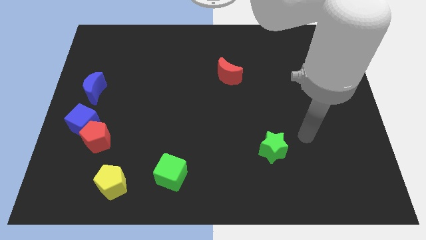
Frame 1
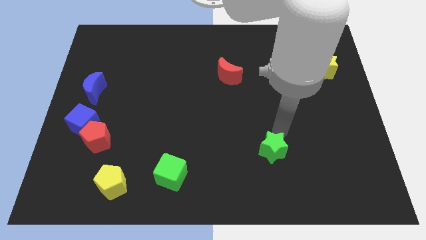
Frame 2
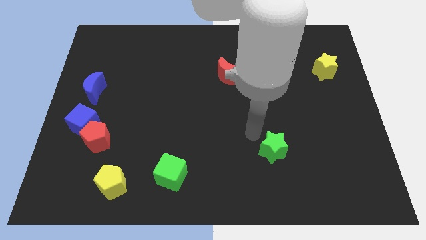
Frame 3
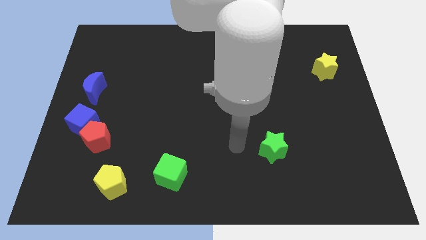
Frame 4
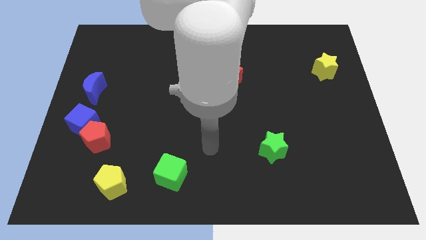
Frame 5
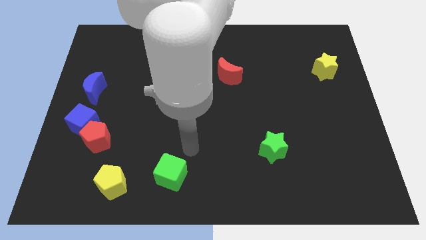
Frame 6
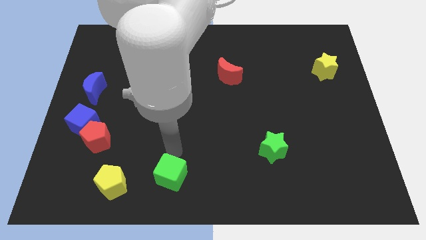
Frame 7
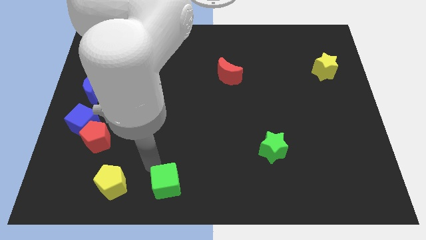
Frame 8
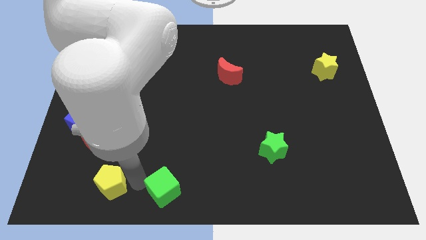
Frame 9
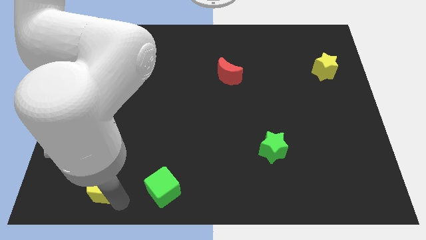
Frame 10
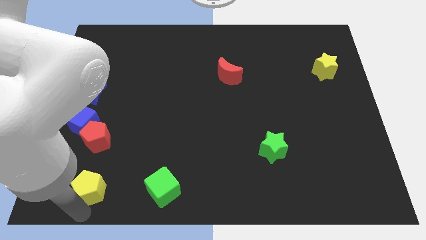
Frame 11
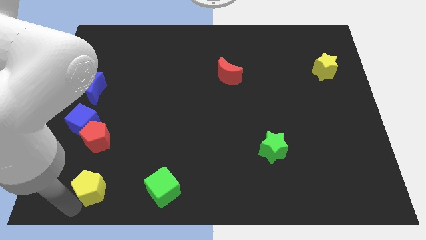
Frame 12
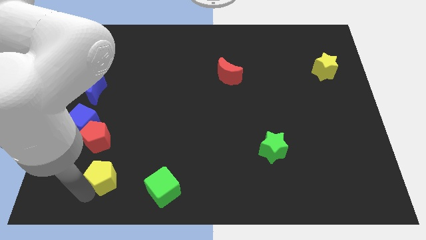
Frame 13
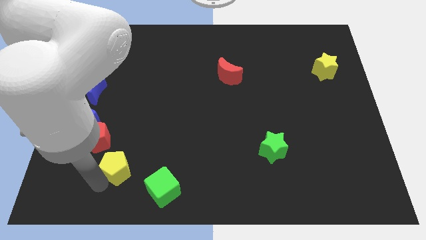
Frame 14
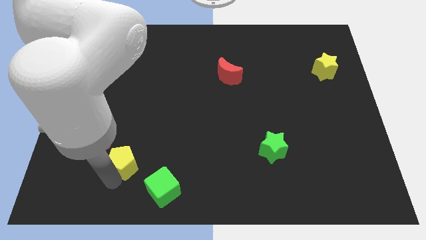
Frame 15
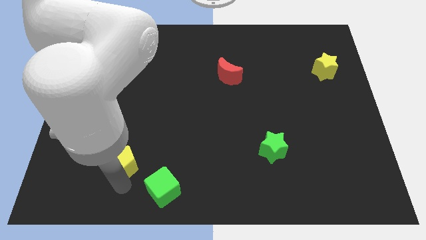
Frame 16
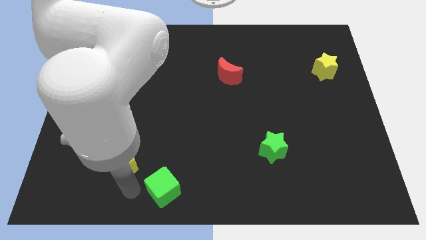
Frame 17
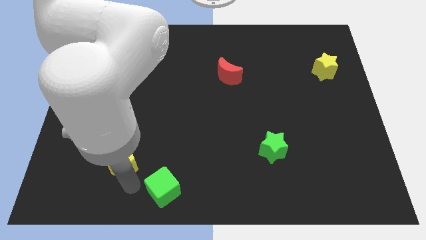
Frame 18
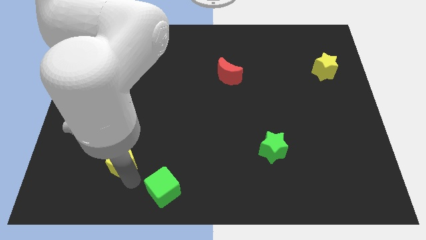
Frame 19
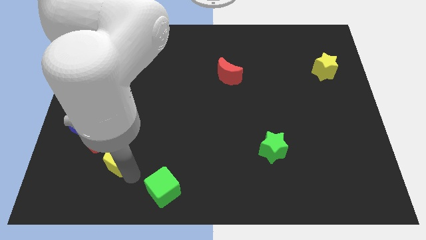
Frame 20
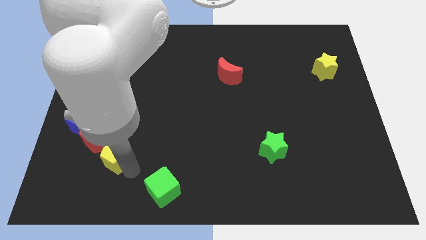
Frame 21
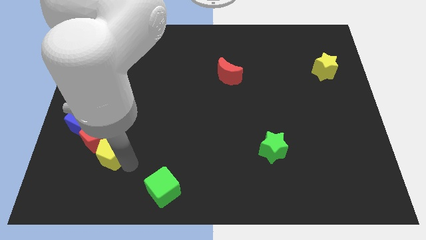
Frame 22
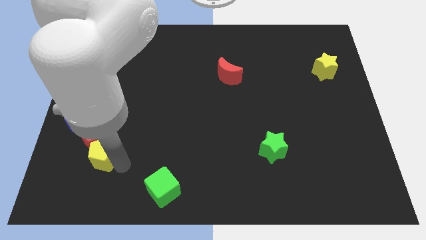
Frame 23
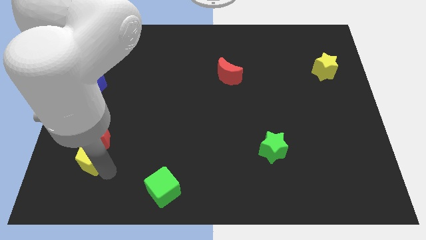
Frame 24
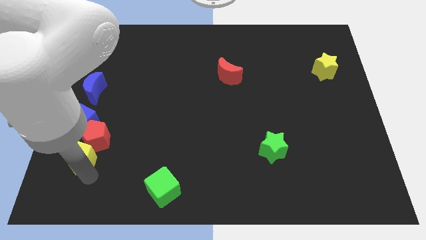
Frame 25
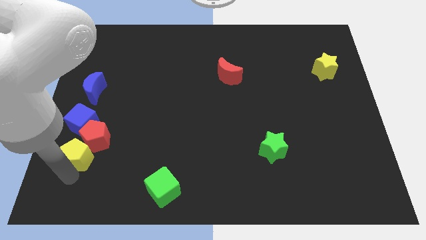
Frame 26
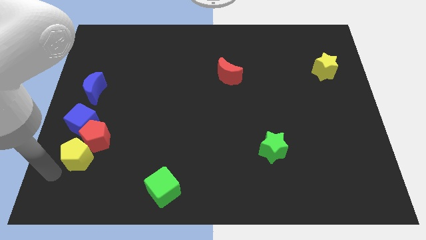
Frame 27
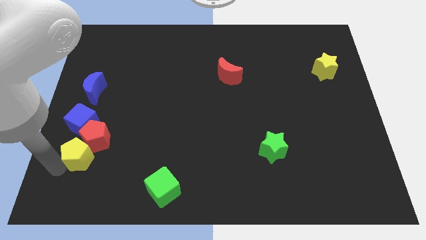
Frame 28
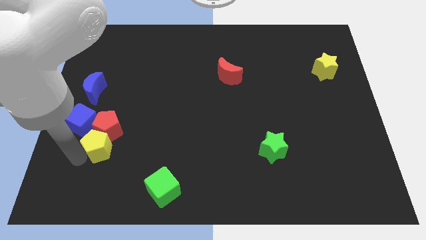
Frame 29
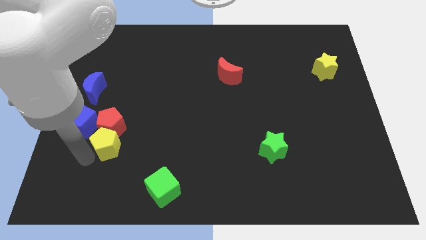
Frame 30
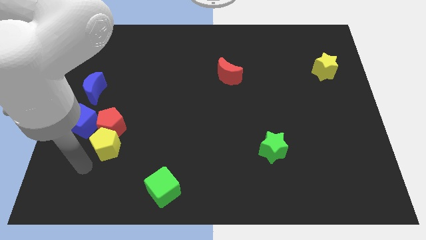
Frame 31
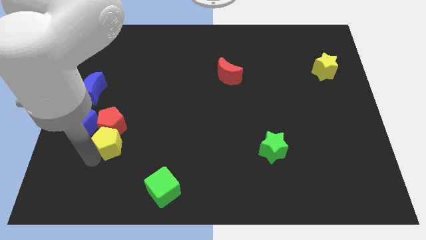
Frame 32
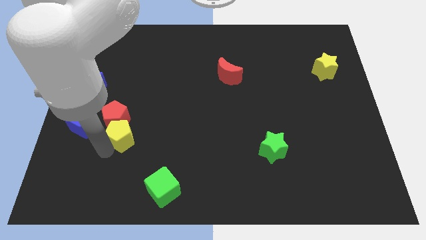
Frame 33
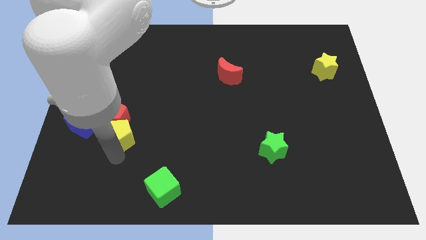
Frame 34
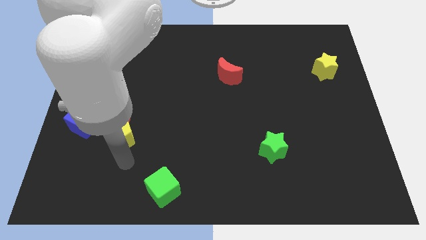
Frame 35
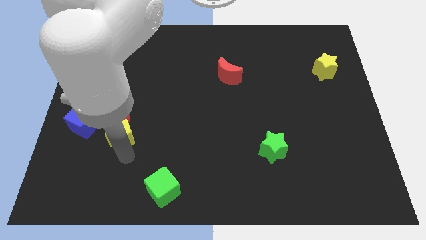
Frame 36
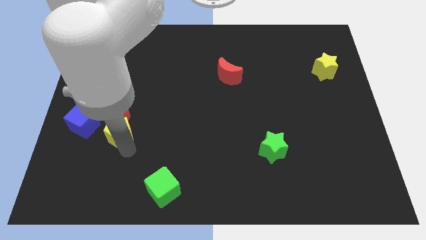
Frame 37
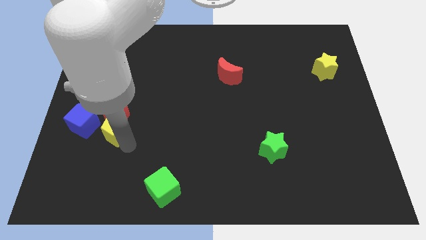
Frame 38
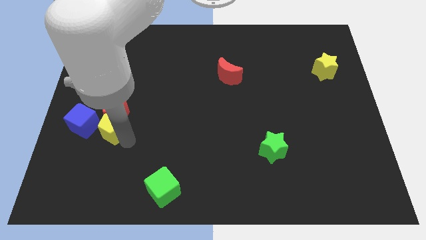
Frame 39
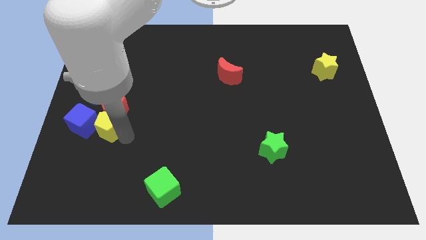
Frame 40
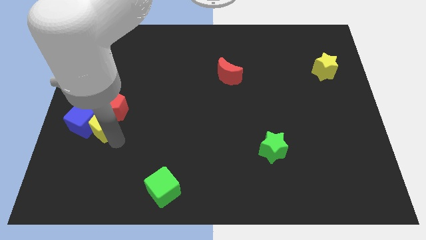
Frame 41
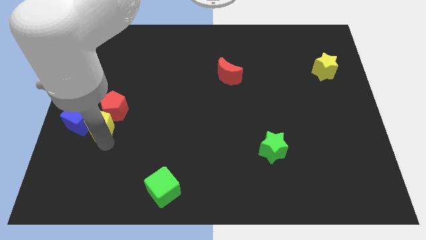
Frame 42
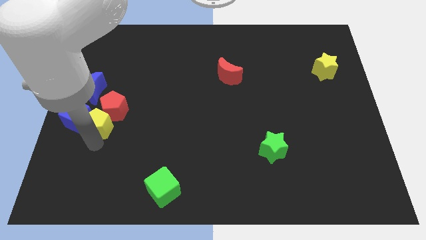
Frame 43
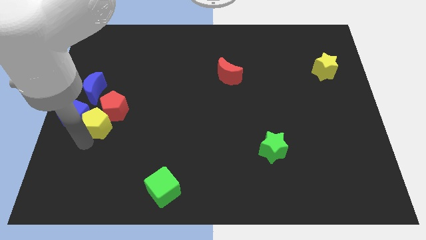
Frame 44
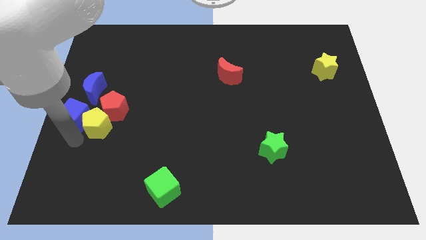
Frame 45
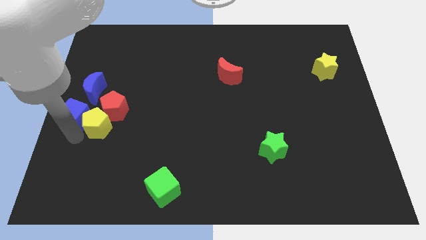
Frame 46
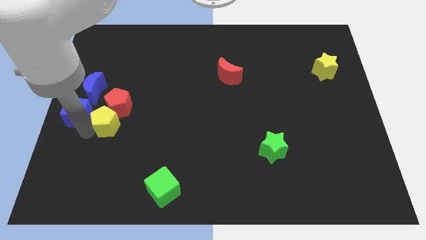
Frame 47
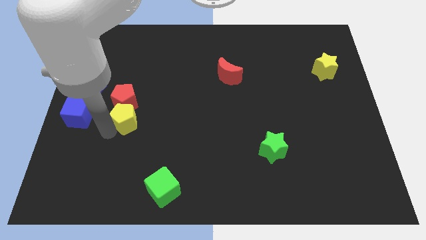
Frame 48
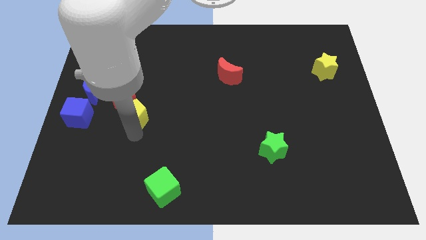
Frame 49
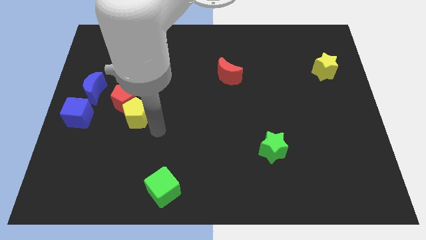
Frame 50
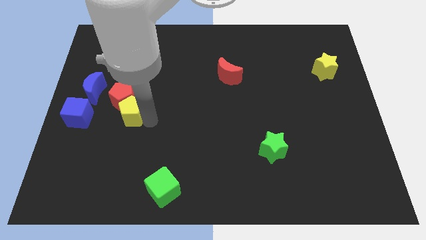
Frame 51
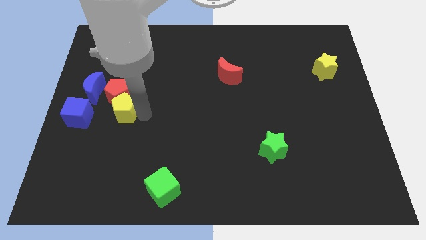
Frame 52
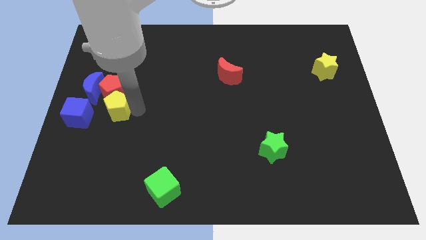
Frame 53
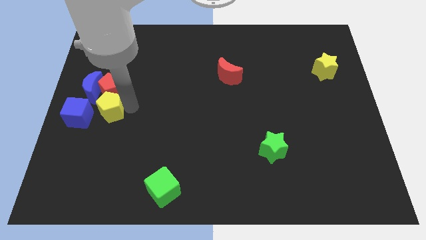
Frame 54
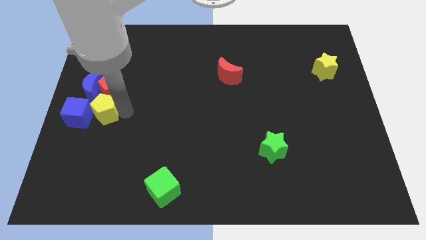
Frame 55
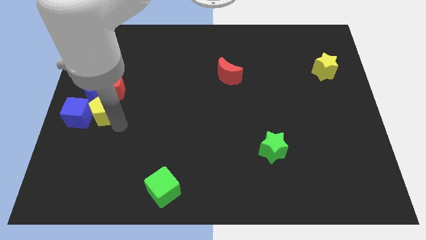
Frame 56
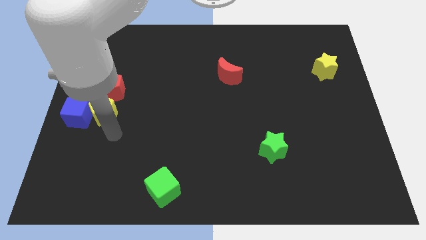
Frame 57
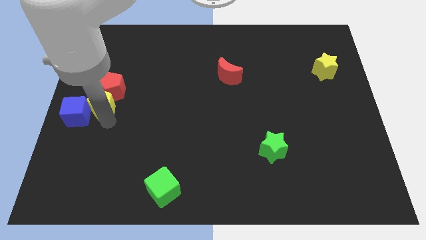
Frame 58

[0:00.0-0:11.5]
put the yellow pentagon next to the blue moon

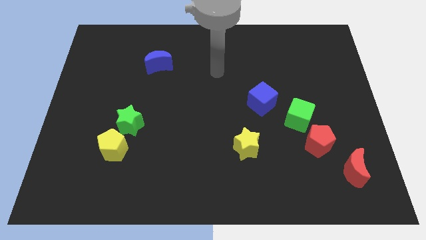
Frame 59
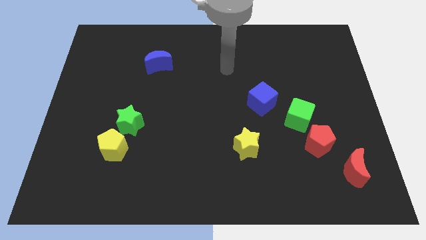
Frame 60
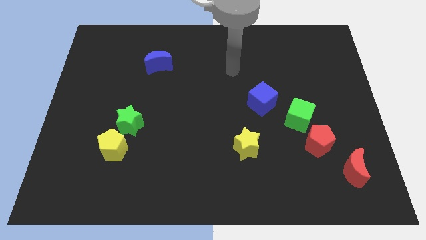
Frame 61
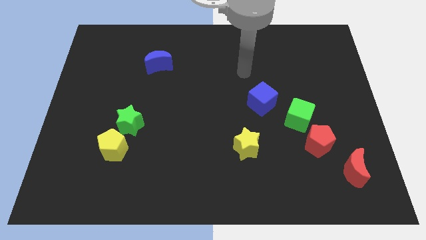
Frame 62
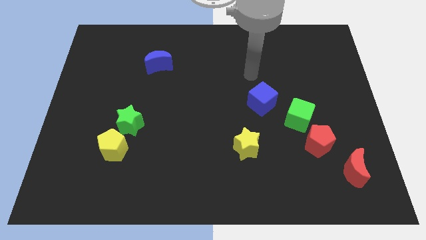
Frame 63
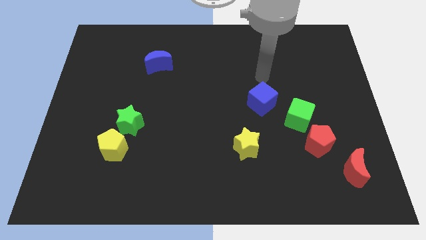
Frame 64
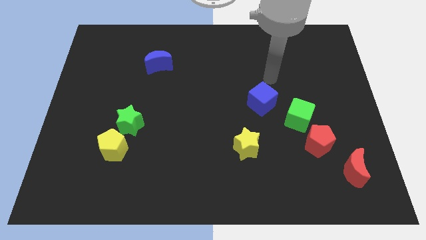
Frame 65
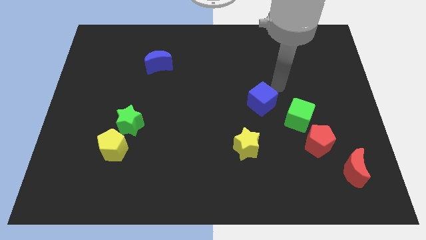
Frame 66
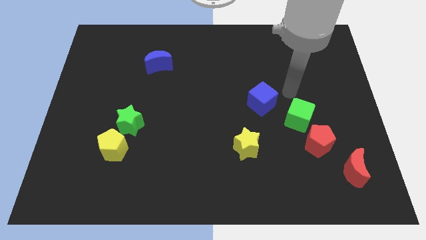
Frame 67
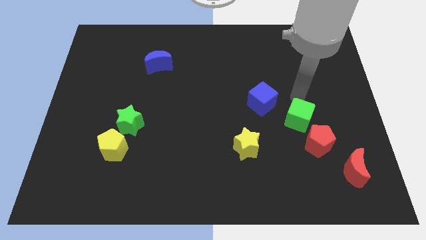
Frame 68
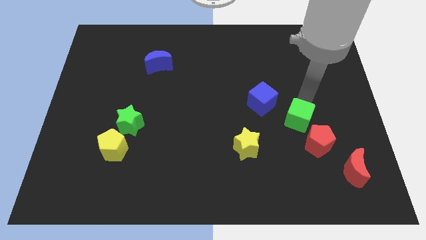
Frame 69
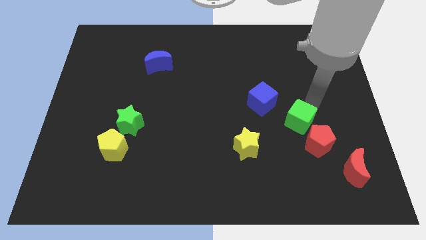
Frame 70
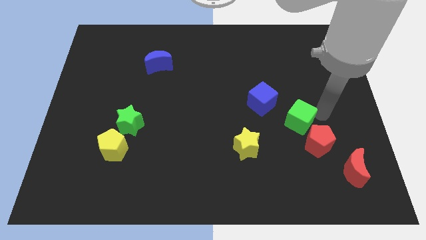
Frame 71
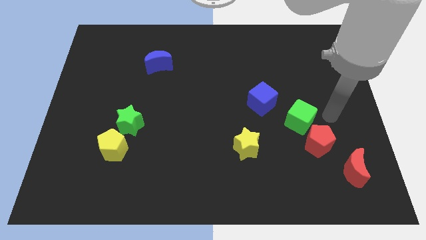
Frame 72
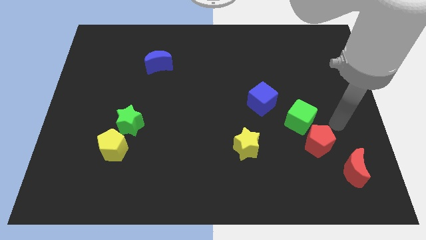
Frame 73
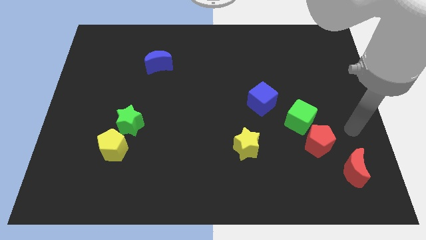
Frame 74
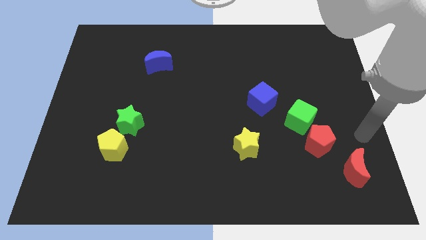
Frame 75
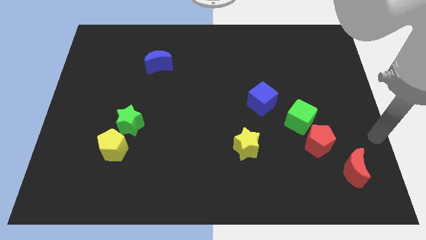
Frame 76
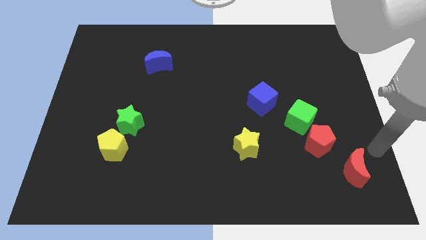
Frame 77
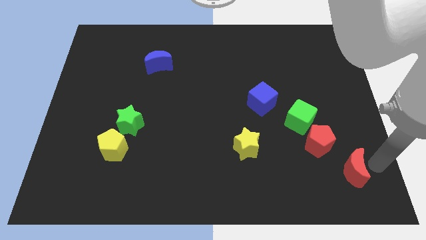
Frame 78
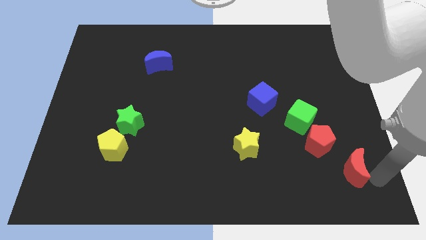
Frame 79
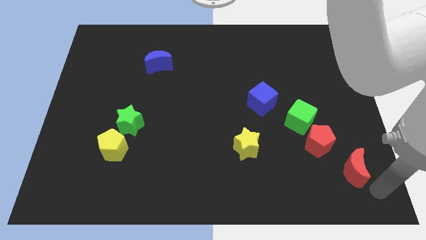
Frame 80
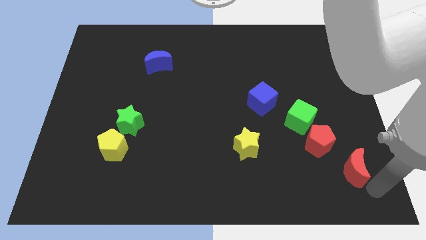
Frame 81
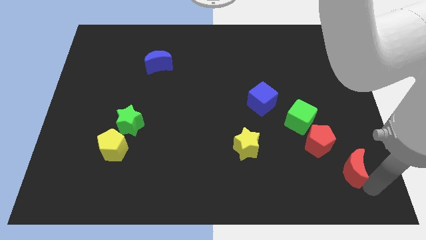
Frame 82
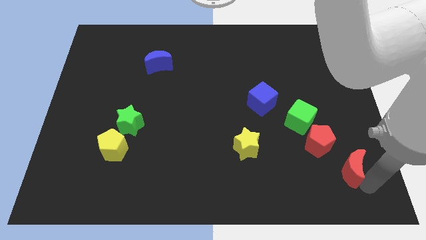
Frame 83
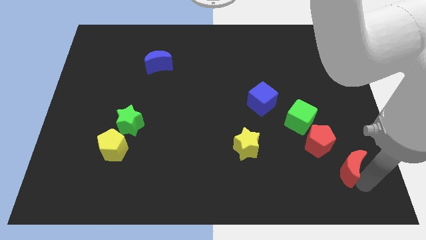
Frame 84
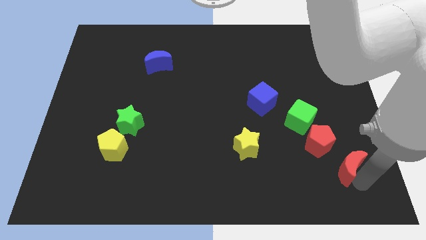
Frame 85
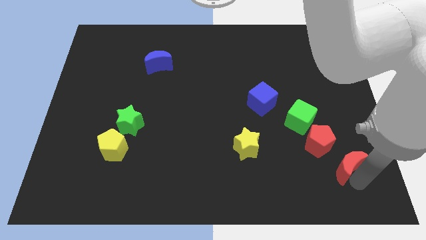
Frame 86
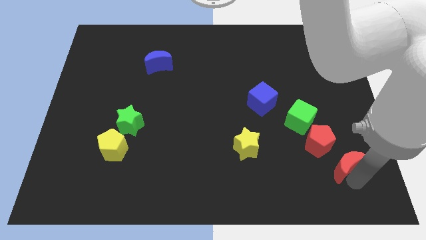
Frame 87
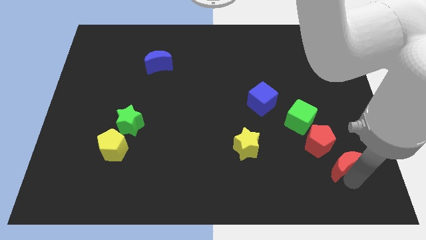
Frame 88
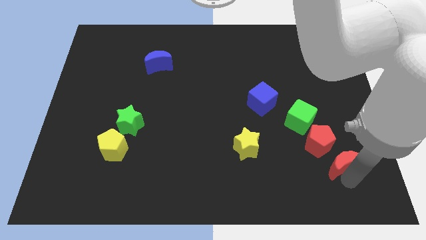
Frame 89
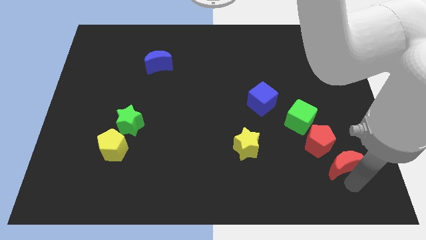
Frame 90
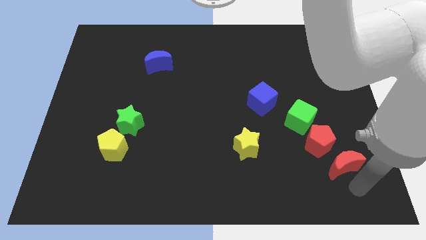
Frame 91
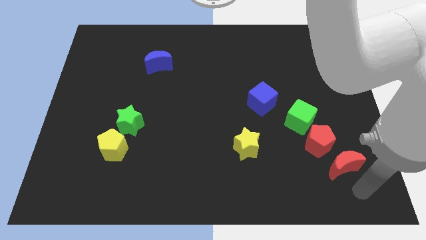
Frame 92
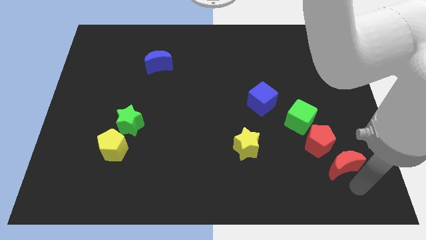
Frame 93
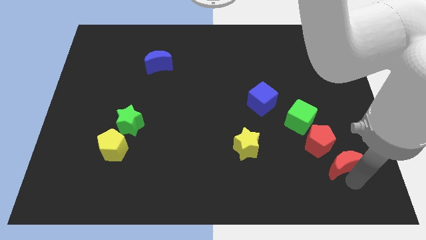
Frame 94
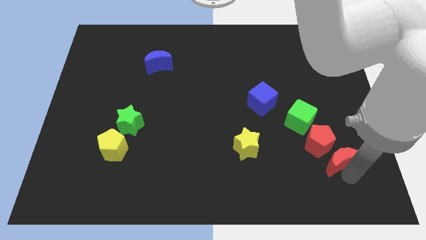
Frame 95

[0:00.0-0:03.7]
move the red moon close to the red pentagon
